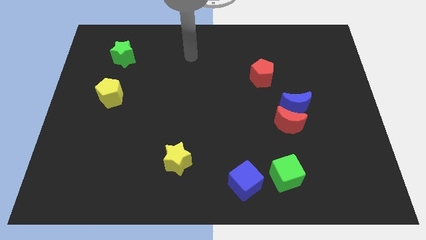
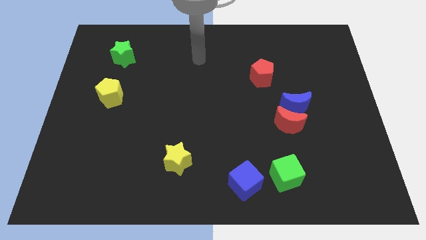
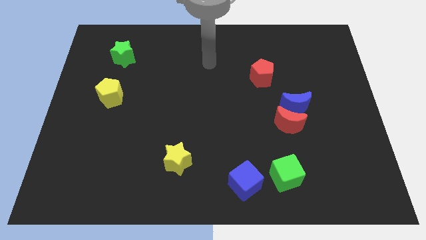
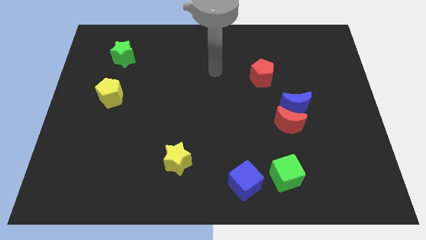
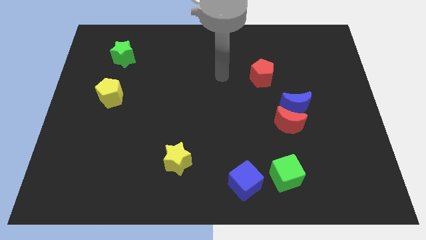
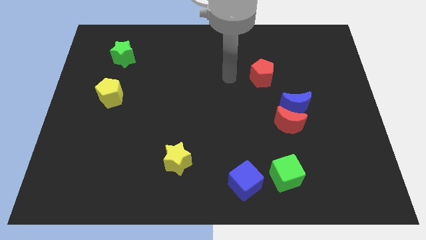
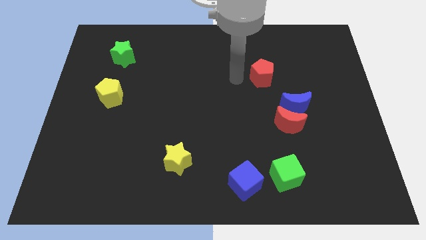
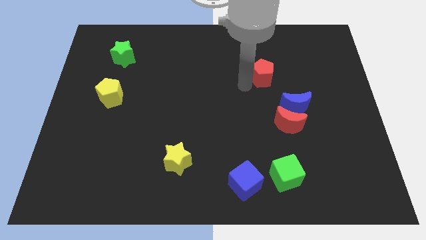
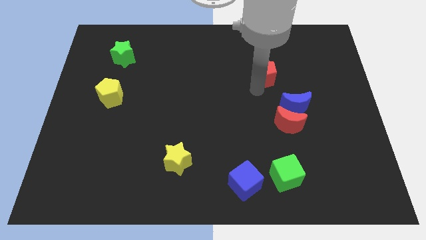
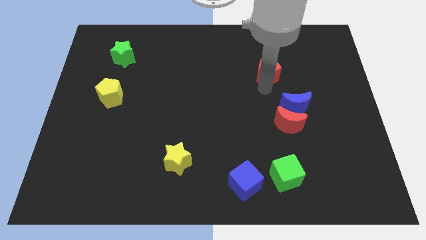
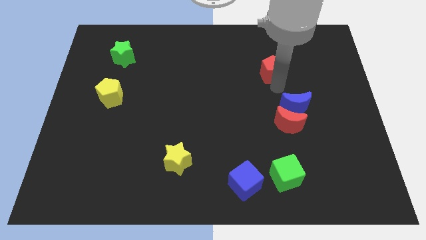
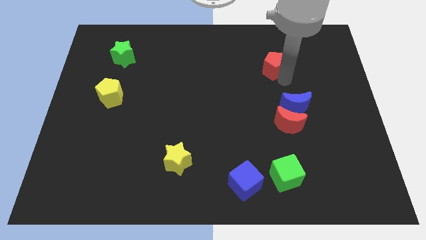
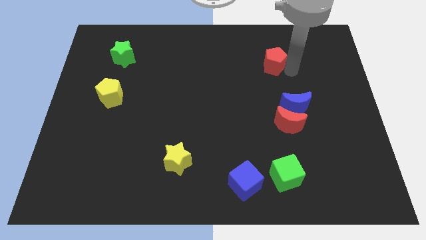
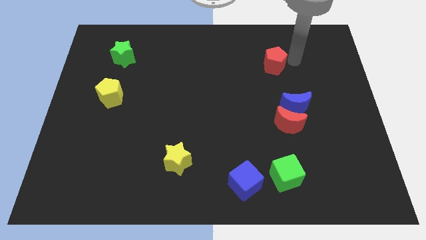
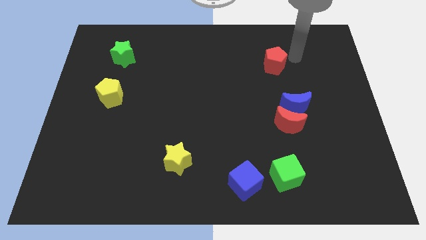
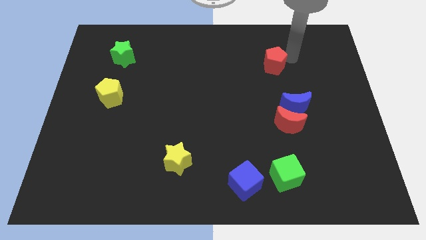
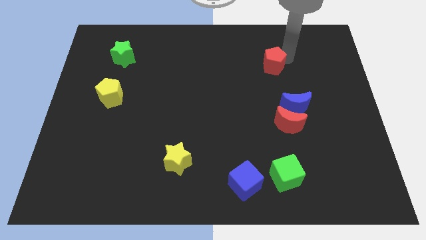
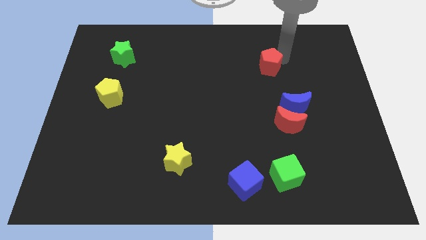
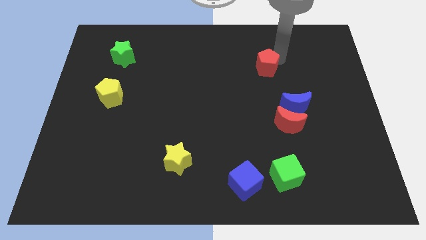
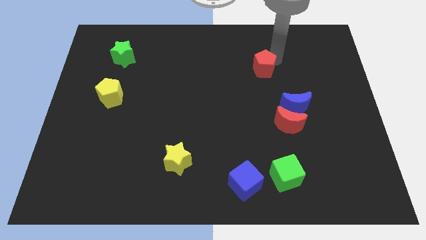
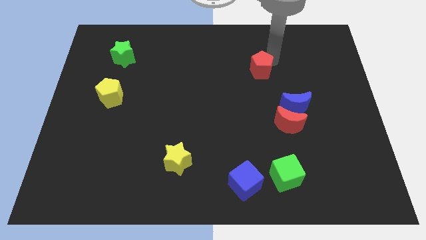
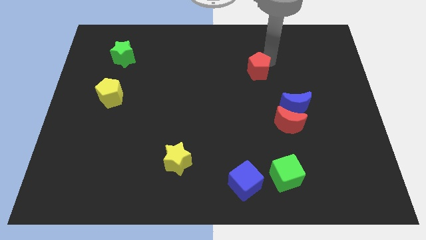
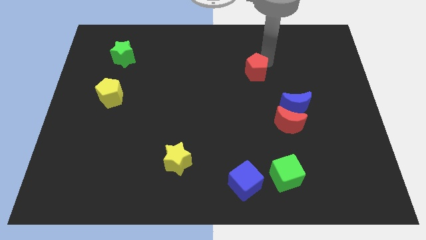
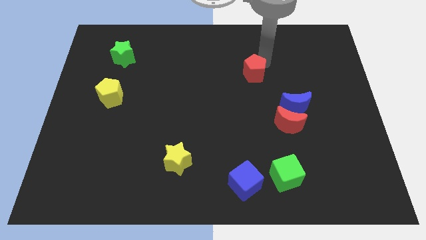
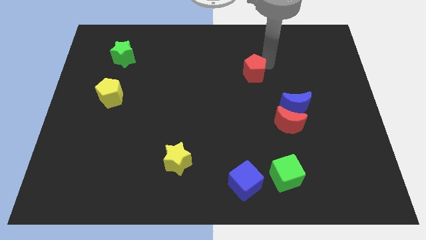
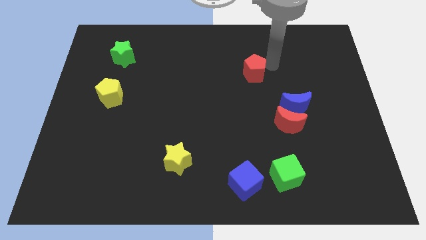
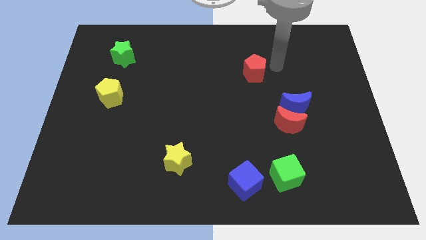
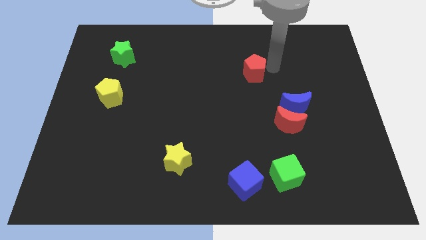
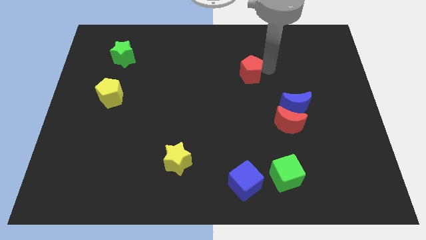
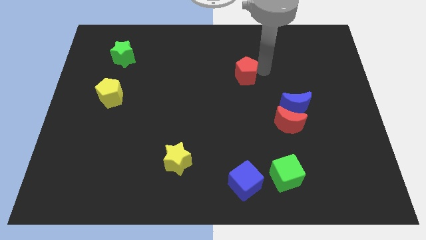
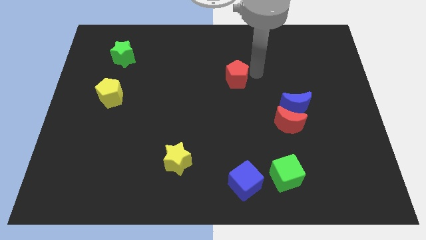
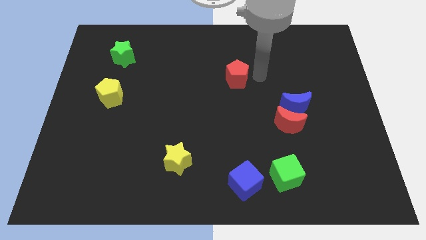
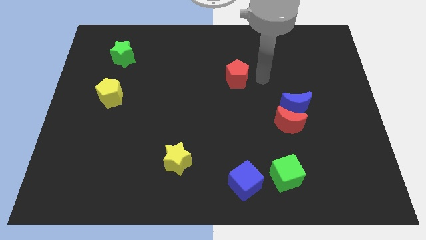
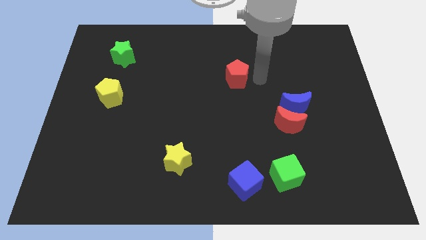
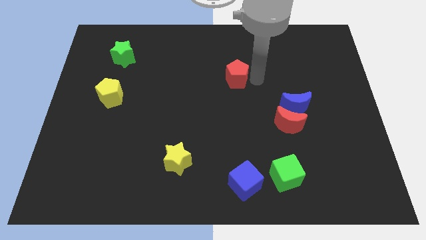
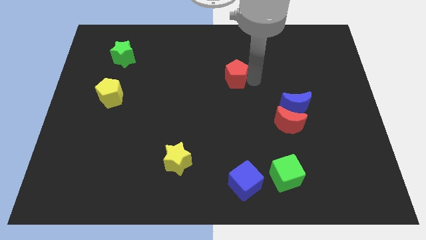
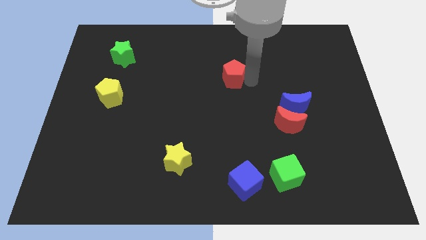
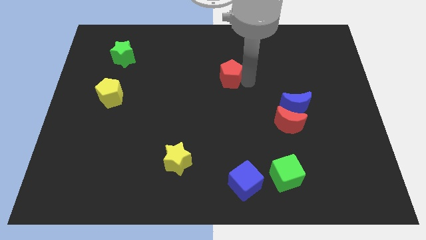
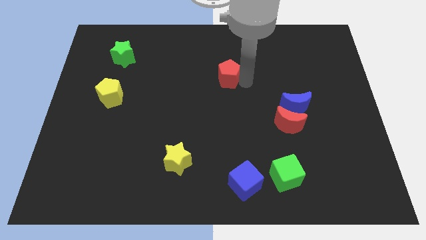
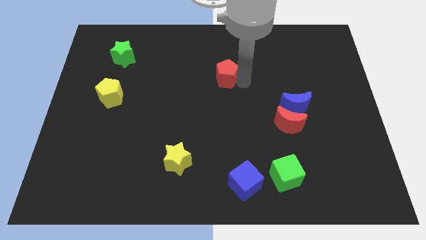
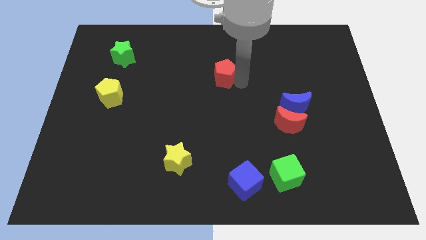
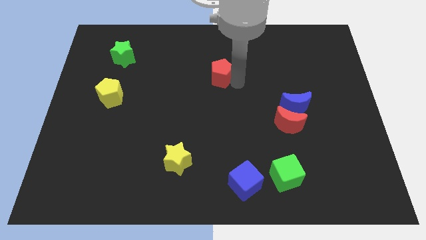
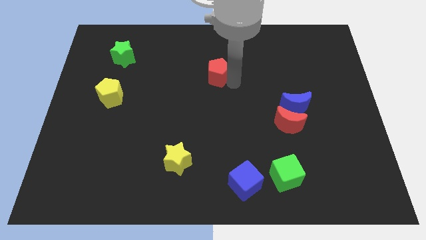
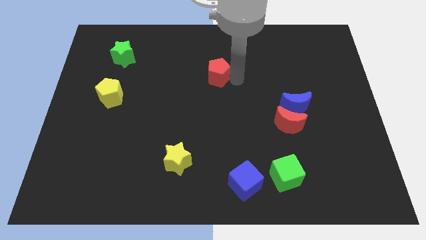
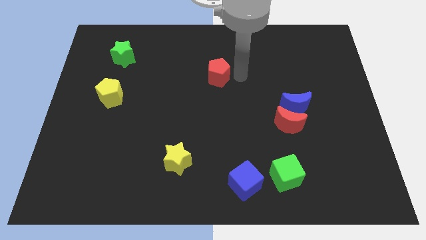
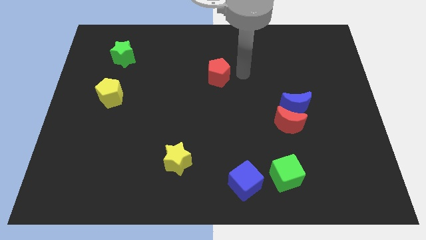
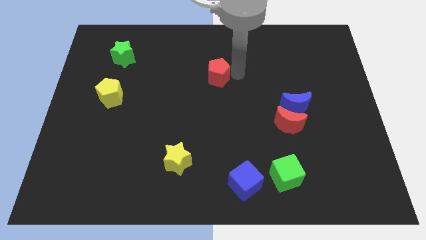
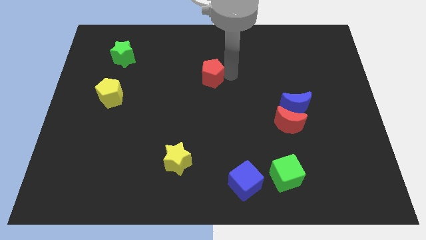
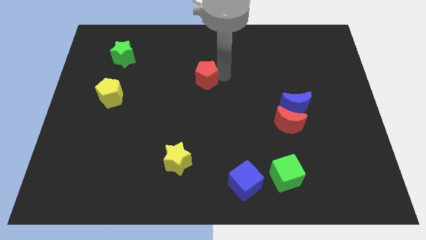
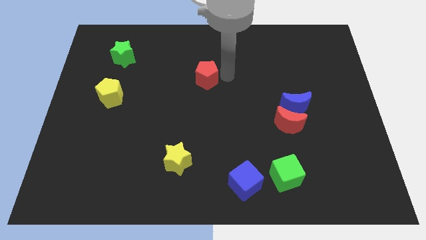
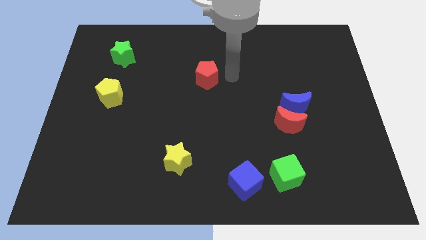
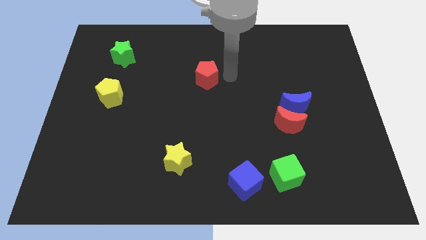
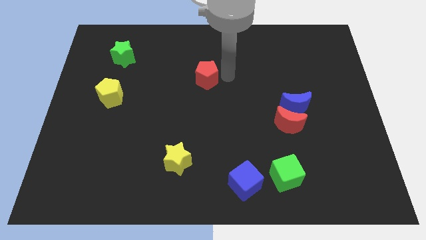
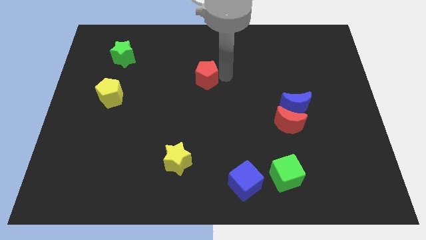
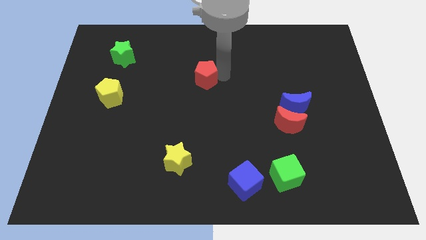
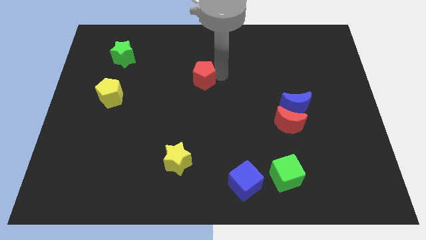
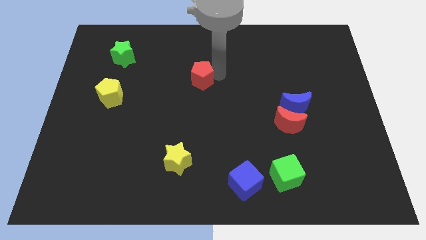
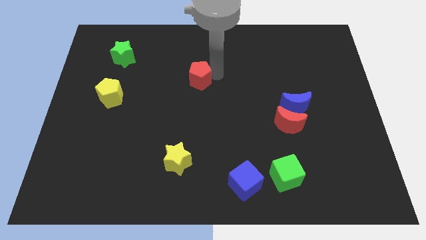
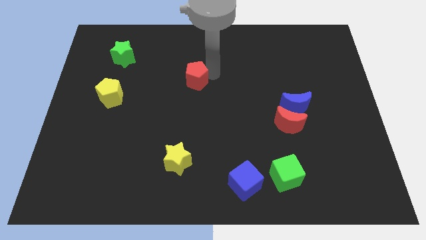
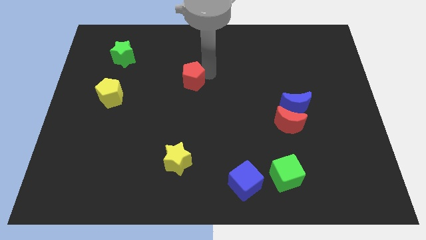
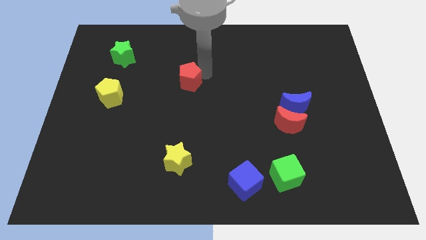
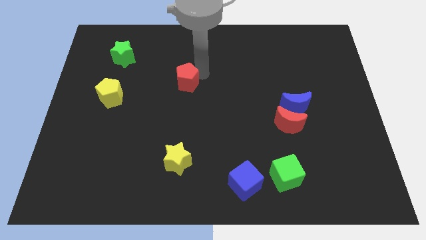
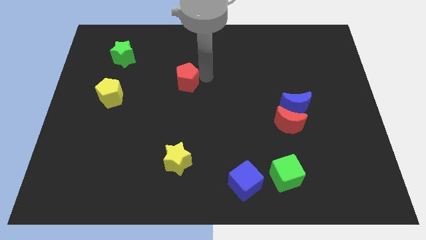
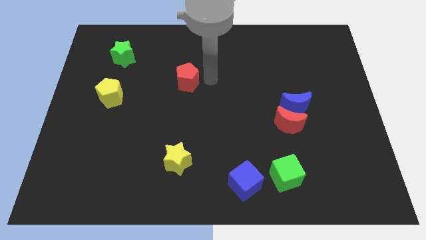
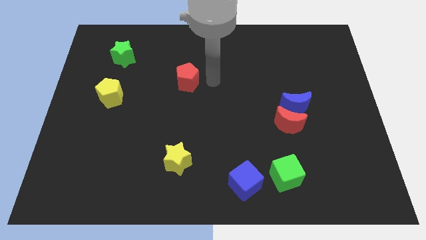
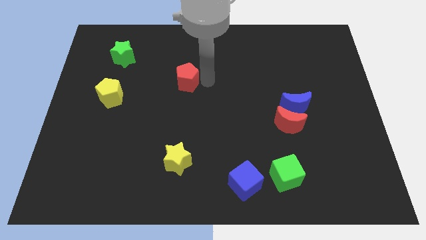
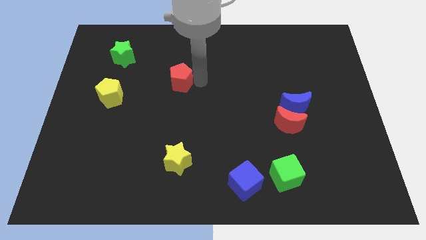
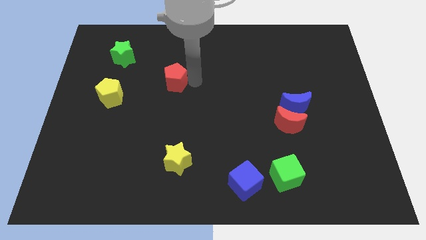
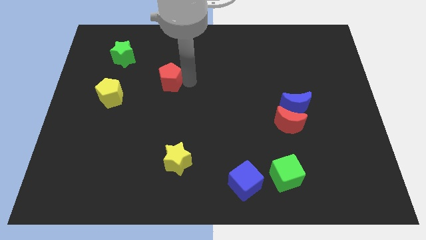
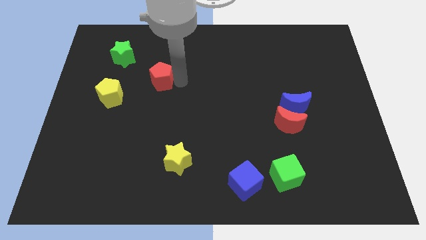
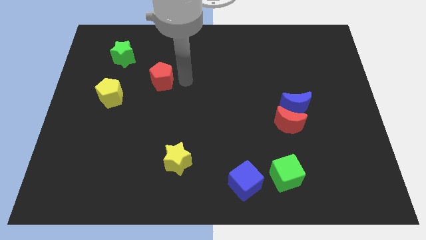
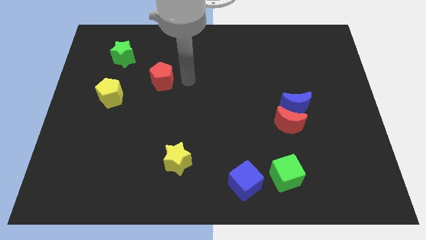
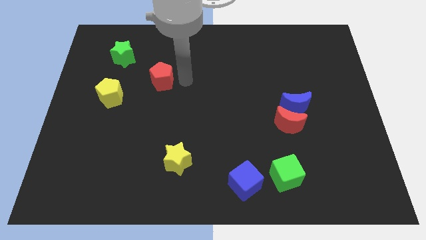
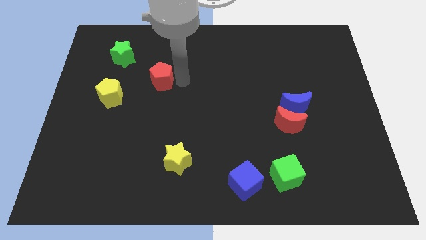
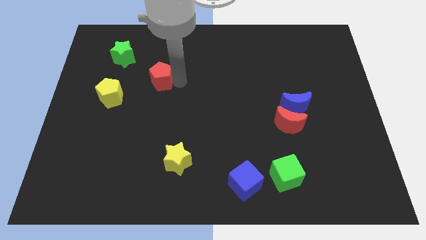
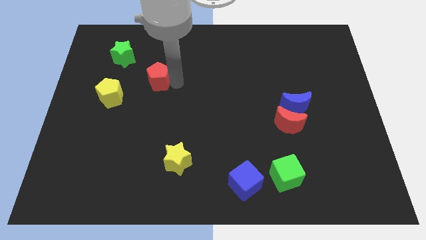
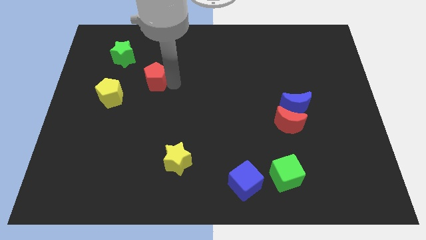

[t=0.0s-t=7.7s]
put the red pentagon to the top right side of the yellow pentagon
